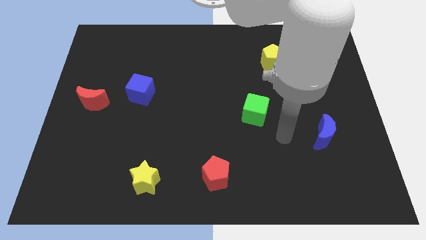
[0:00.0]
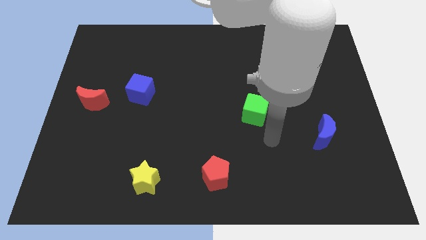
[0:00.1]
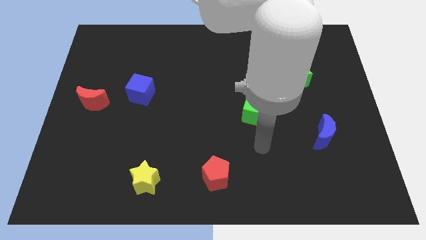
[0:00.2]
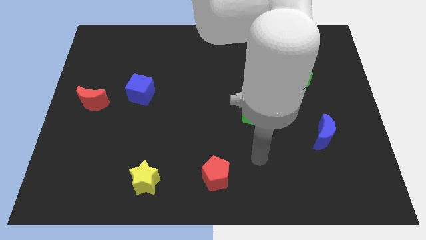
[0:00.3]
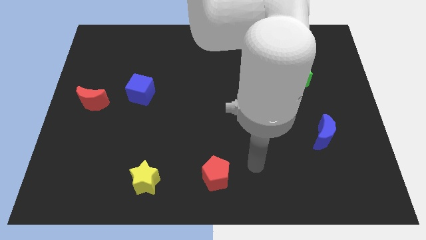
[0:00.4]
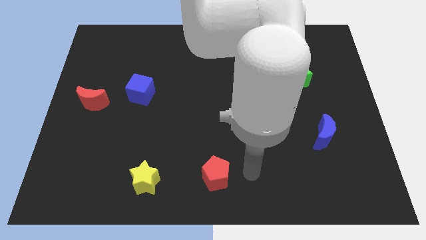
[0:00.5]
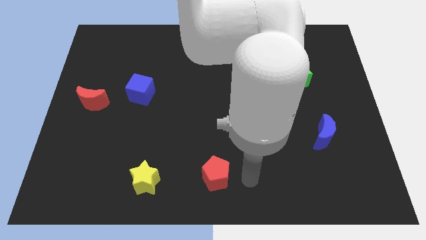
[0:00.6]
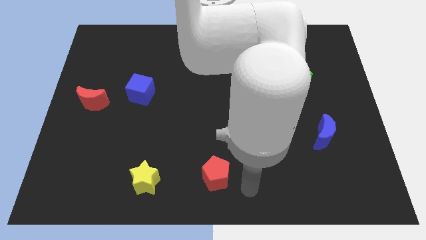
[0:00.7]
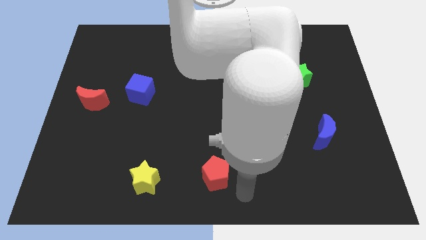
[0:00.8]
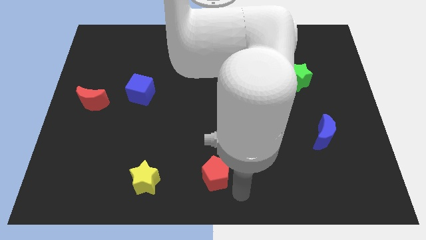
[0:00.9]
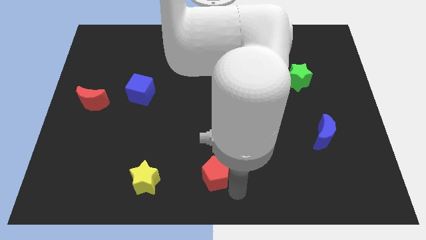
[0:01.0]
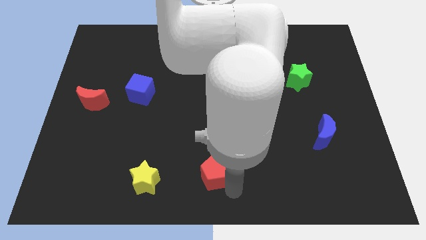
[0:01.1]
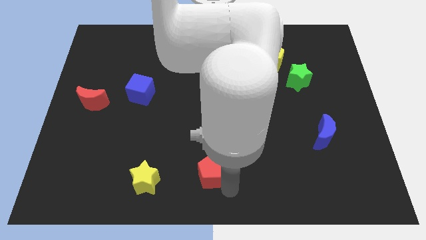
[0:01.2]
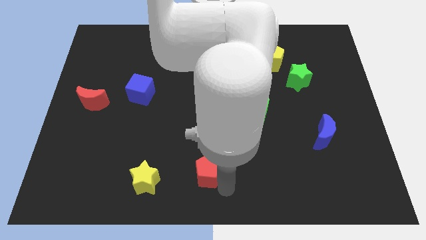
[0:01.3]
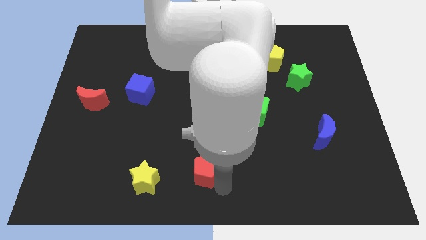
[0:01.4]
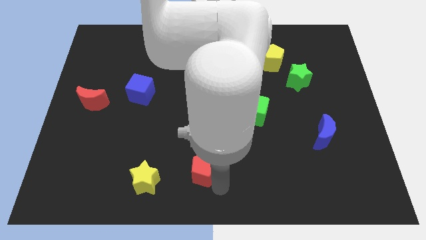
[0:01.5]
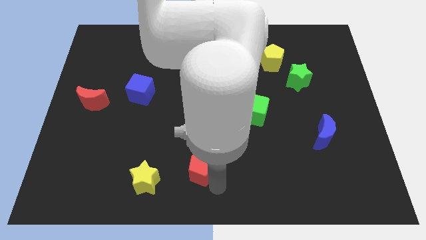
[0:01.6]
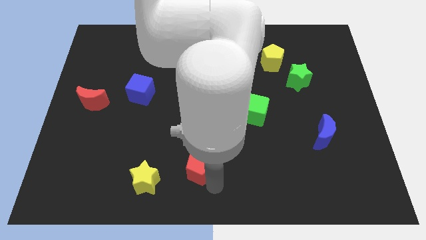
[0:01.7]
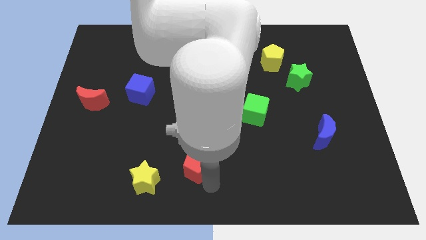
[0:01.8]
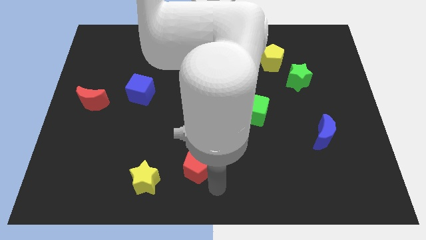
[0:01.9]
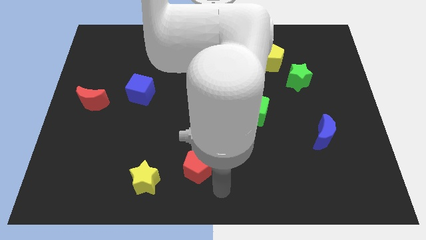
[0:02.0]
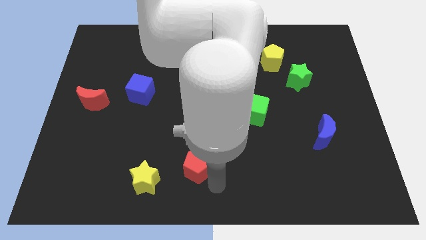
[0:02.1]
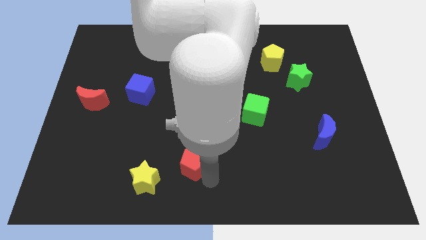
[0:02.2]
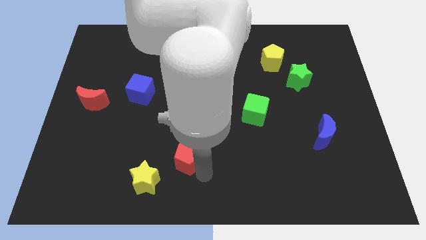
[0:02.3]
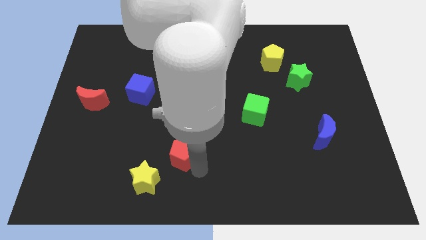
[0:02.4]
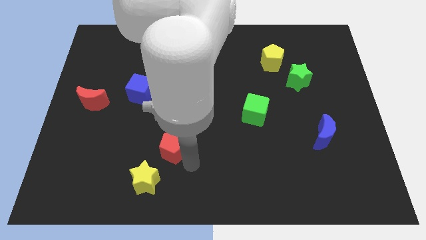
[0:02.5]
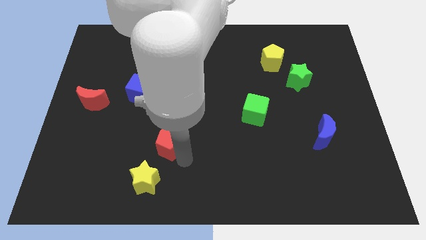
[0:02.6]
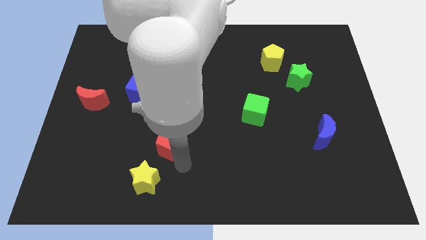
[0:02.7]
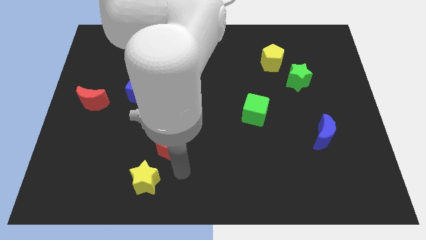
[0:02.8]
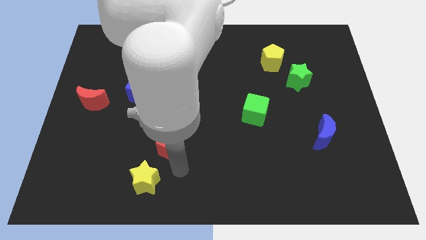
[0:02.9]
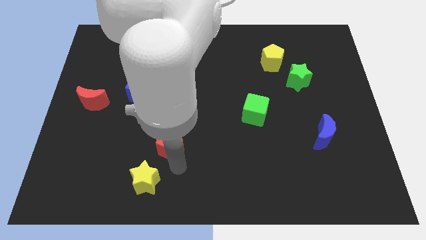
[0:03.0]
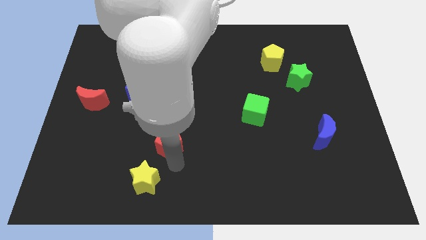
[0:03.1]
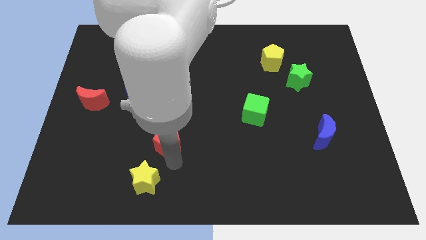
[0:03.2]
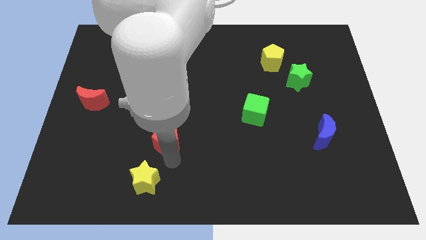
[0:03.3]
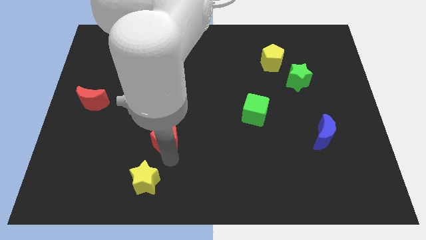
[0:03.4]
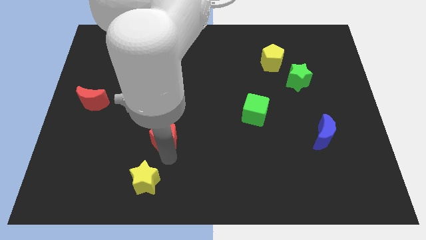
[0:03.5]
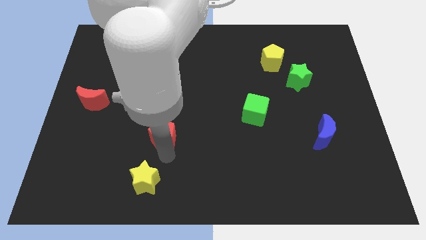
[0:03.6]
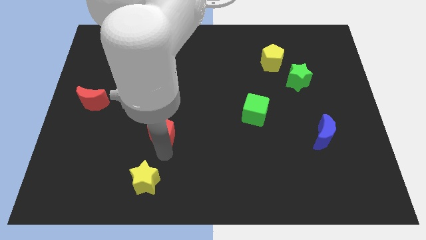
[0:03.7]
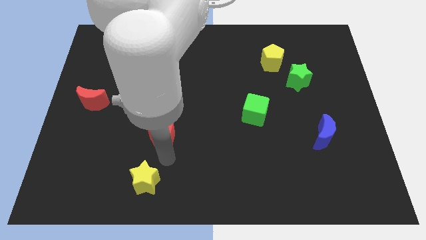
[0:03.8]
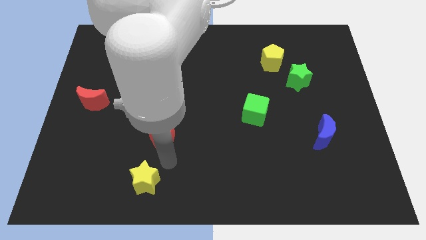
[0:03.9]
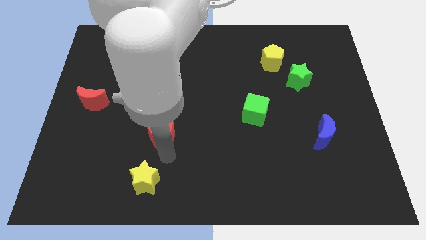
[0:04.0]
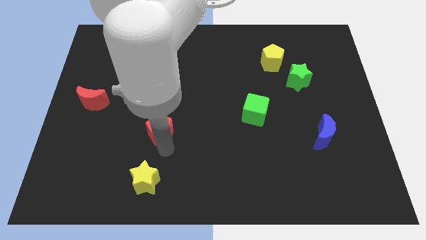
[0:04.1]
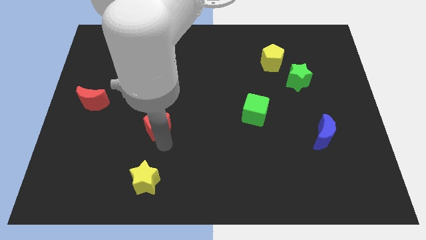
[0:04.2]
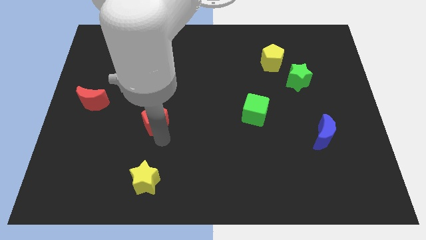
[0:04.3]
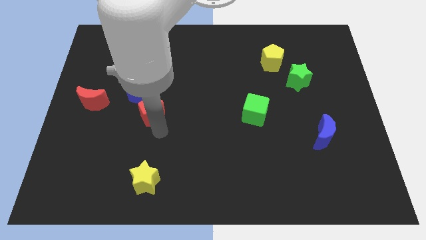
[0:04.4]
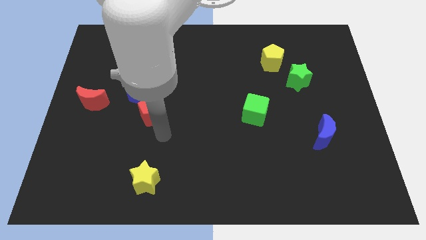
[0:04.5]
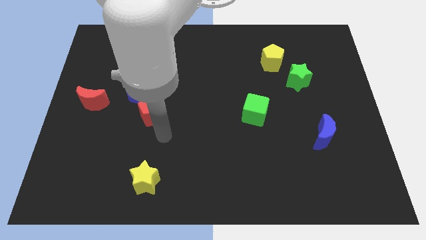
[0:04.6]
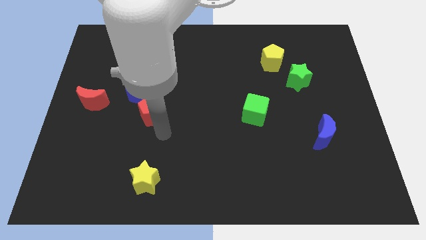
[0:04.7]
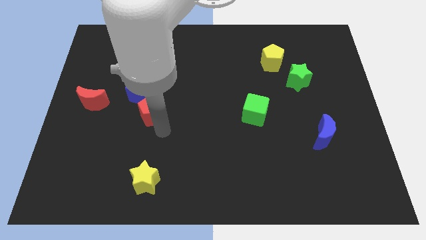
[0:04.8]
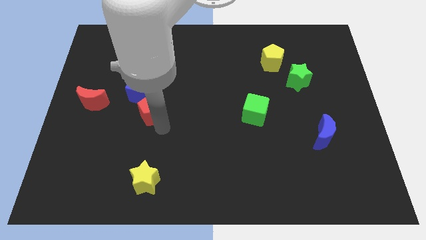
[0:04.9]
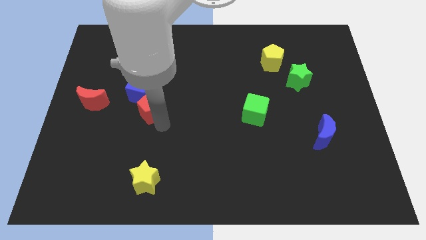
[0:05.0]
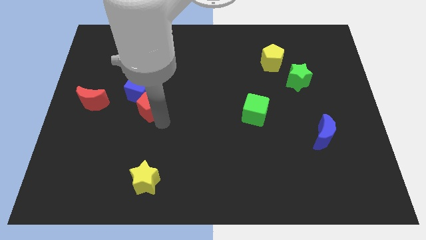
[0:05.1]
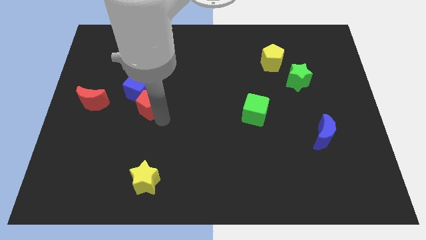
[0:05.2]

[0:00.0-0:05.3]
put the red pentagon to the blue cube

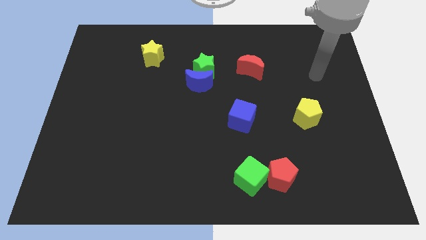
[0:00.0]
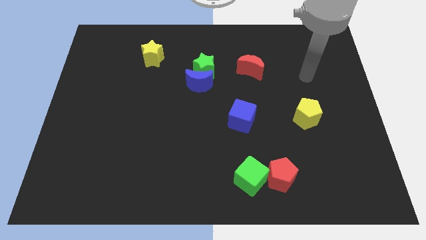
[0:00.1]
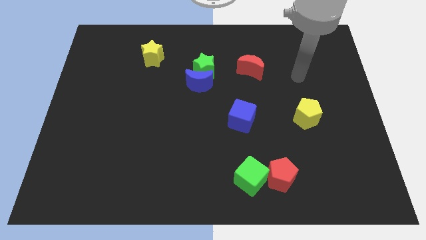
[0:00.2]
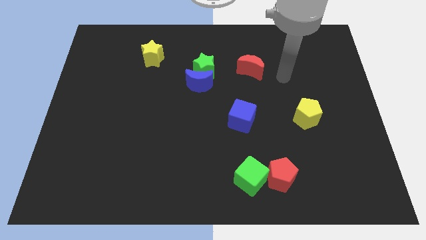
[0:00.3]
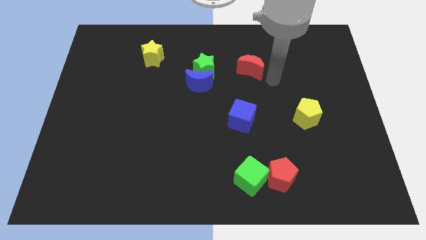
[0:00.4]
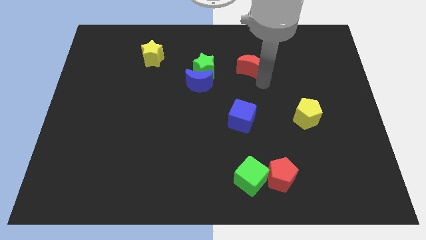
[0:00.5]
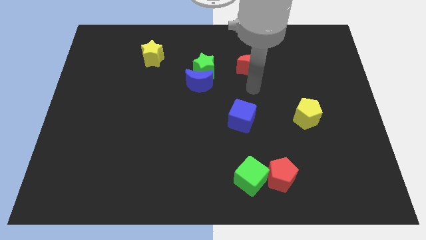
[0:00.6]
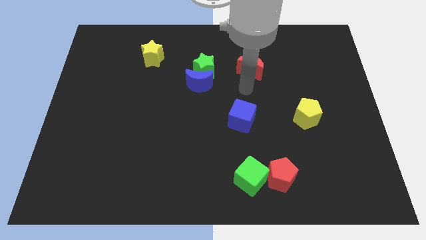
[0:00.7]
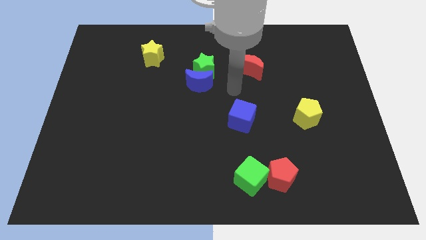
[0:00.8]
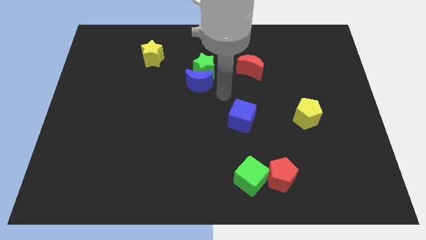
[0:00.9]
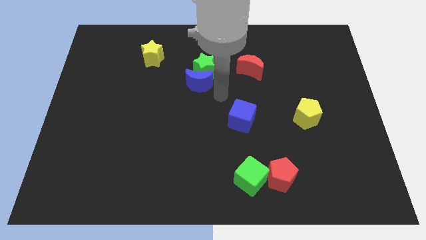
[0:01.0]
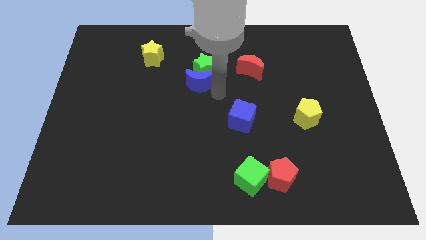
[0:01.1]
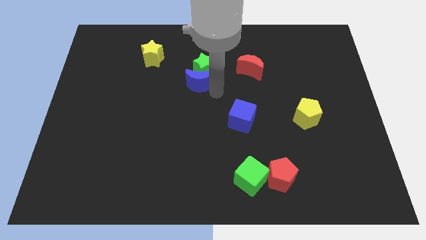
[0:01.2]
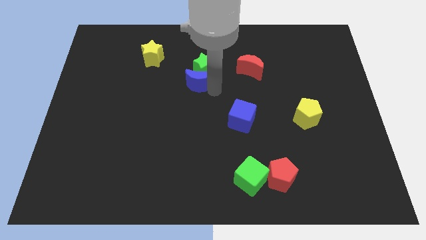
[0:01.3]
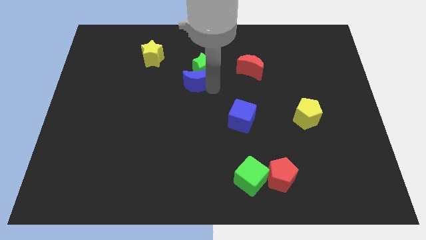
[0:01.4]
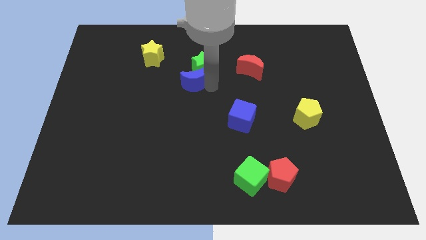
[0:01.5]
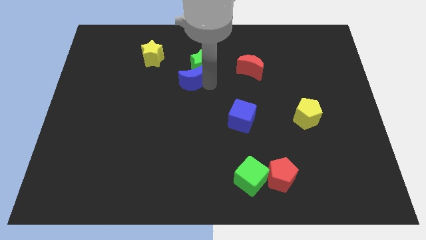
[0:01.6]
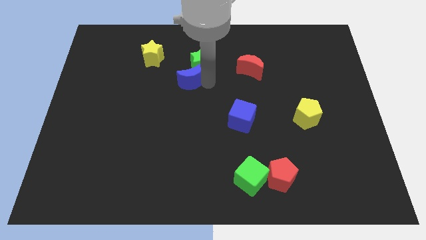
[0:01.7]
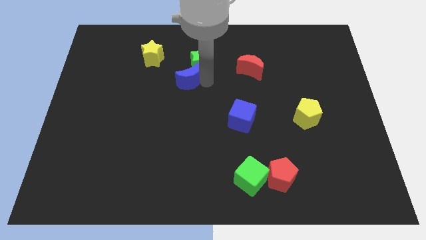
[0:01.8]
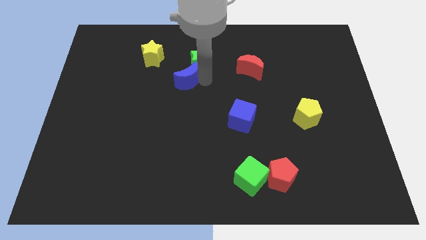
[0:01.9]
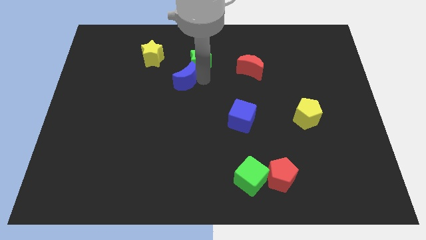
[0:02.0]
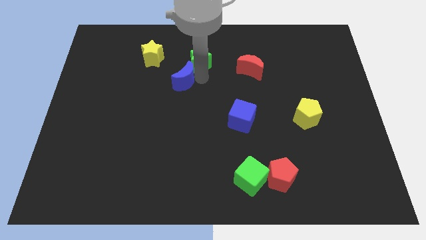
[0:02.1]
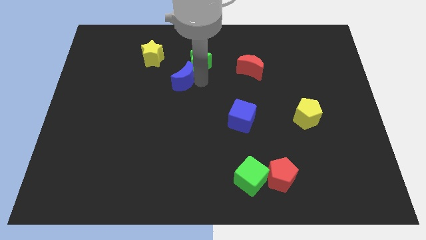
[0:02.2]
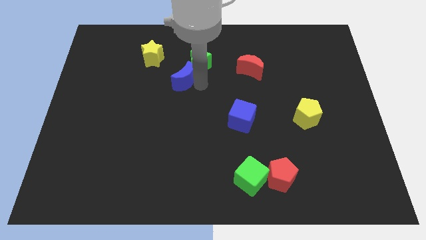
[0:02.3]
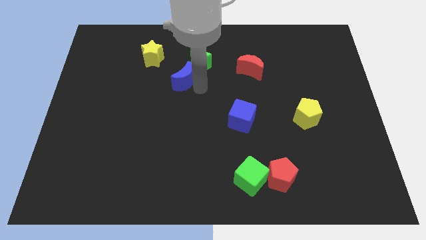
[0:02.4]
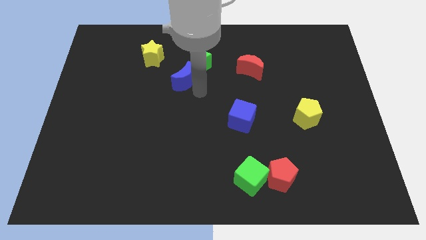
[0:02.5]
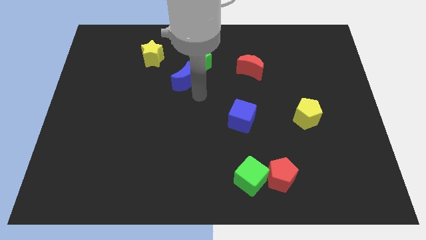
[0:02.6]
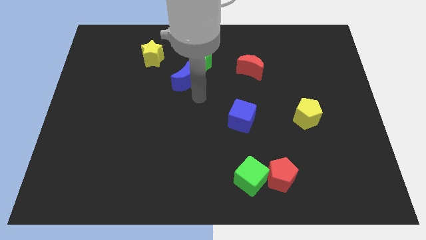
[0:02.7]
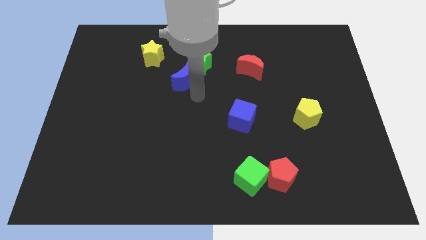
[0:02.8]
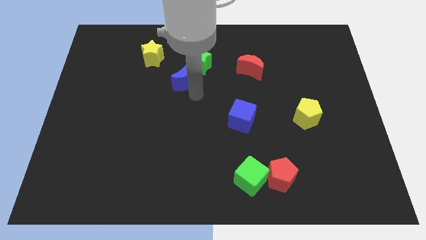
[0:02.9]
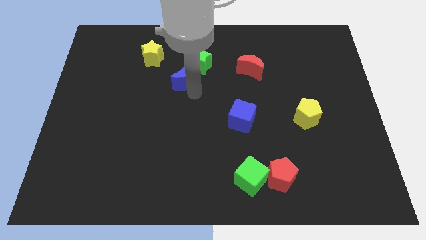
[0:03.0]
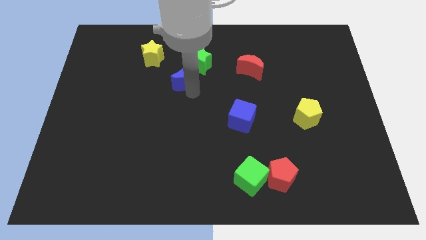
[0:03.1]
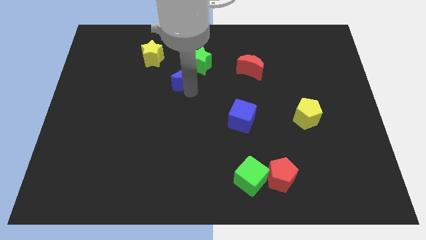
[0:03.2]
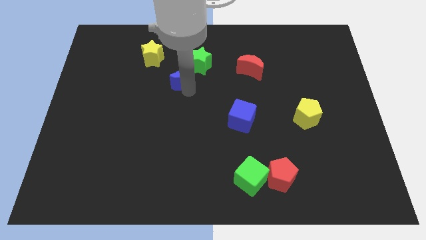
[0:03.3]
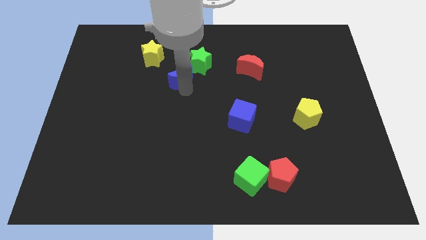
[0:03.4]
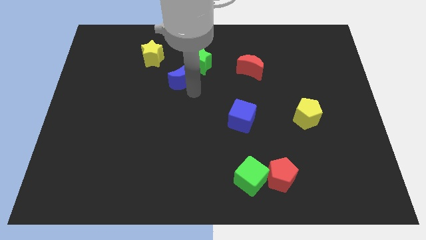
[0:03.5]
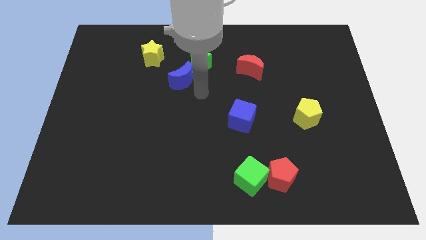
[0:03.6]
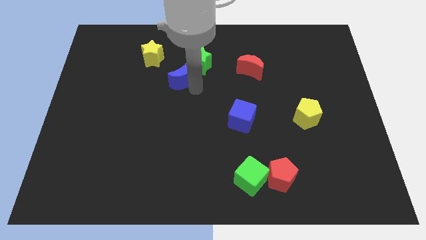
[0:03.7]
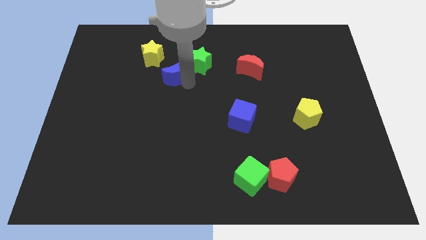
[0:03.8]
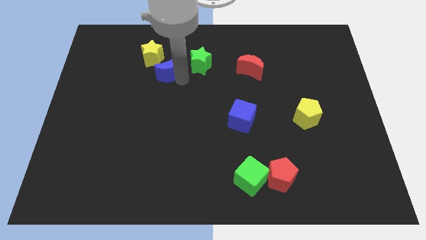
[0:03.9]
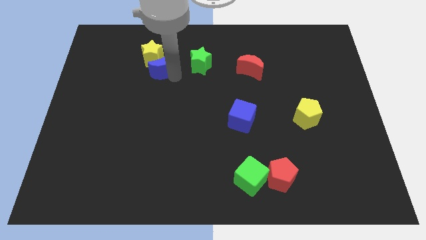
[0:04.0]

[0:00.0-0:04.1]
slide the blue moon towards the yellow star
